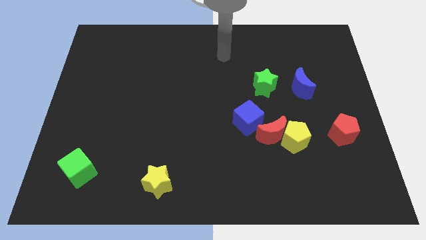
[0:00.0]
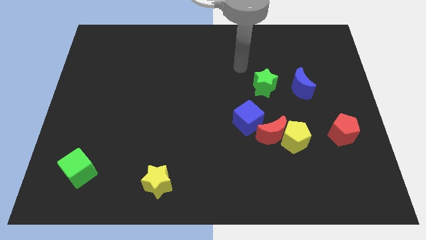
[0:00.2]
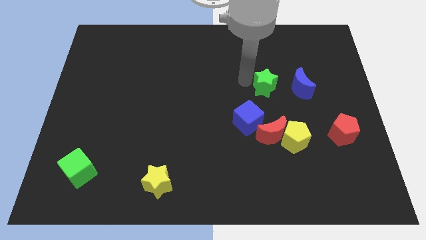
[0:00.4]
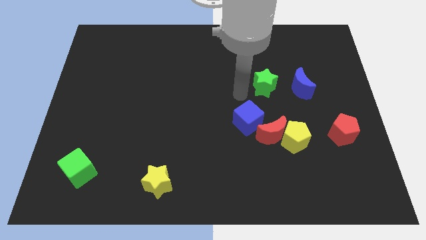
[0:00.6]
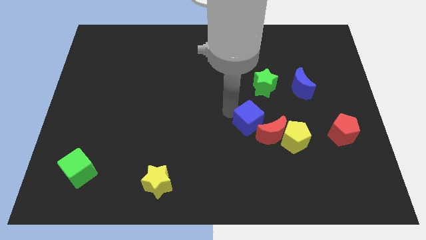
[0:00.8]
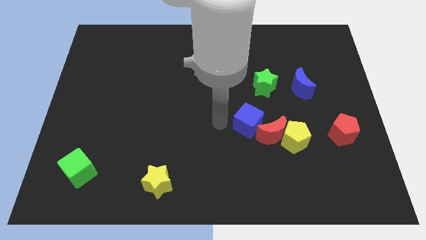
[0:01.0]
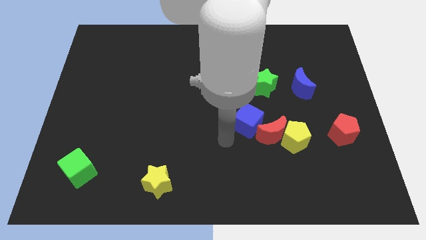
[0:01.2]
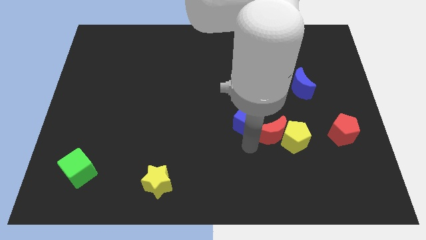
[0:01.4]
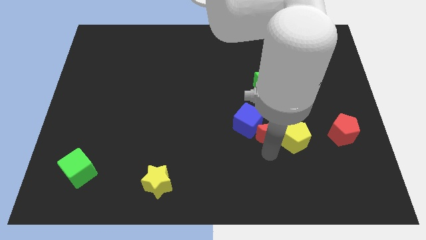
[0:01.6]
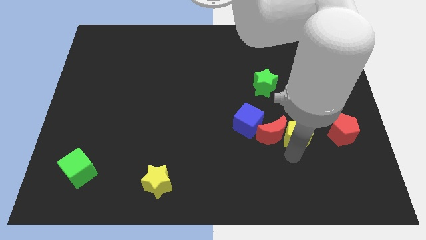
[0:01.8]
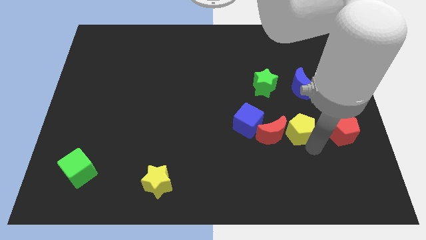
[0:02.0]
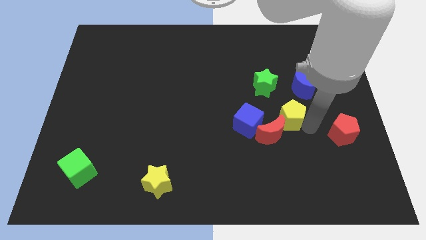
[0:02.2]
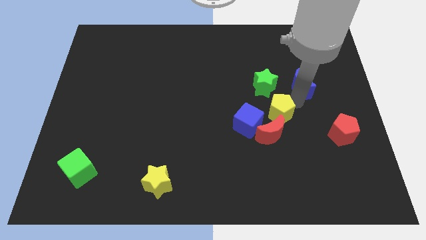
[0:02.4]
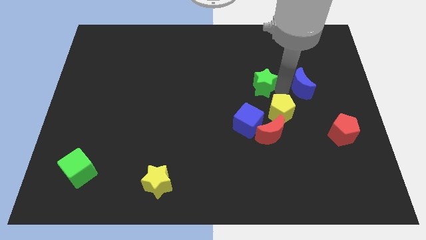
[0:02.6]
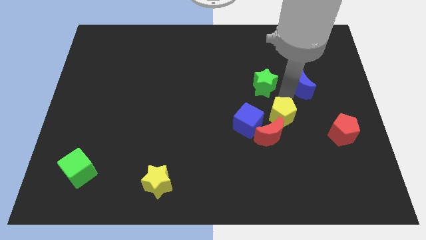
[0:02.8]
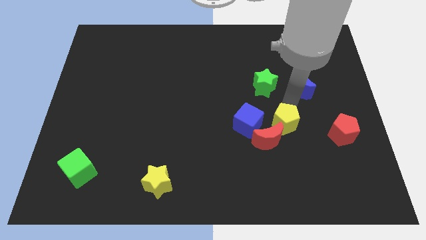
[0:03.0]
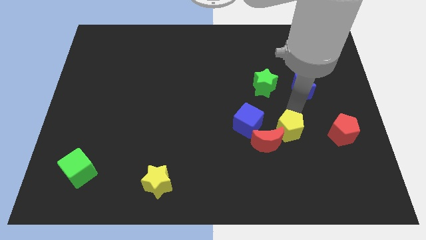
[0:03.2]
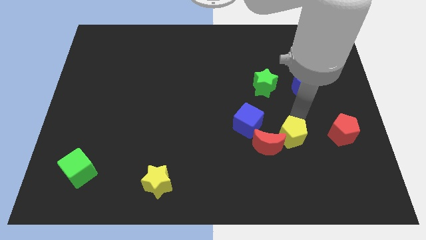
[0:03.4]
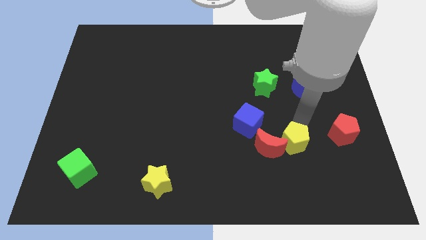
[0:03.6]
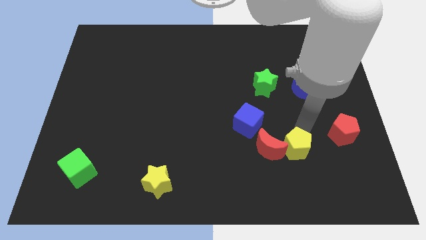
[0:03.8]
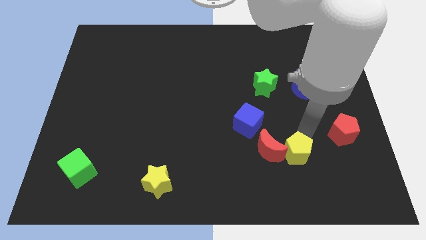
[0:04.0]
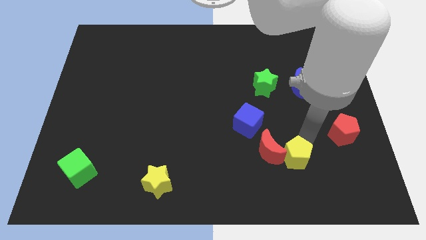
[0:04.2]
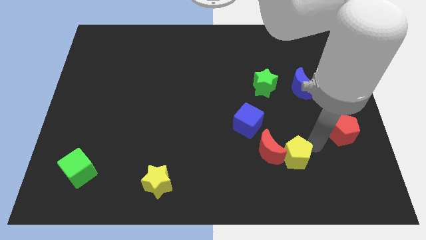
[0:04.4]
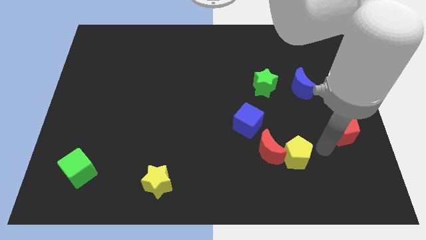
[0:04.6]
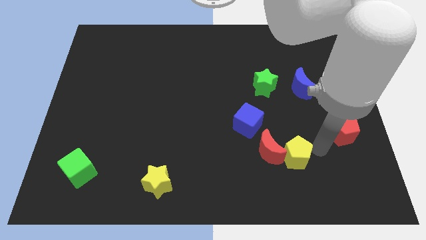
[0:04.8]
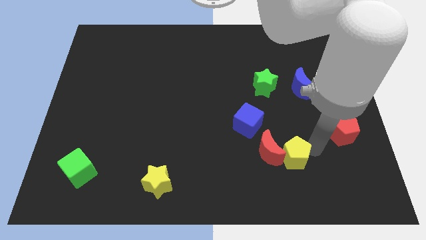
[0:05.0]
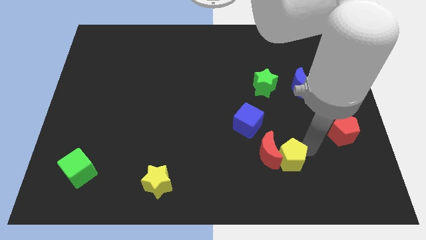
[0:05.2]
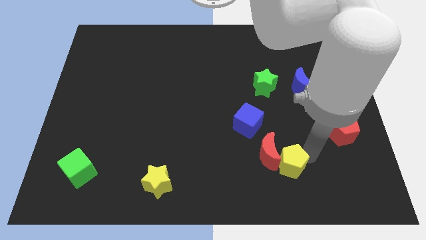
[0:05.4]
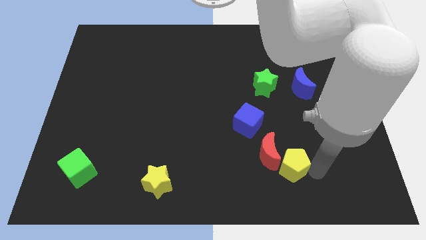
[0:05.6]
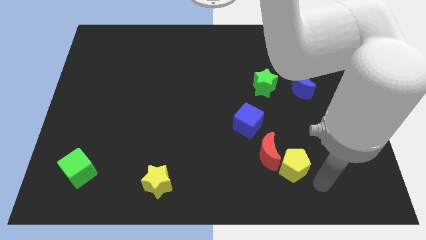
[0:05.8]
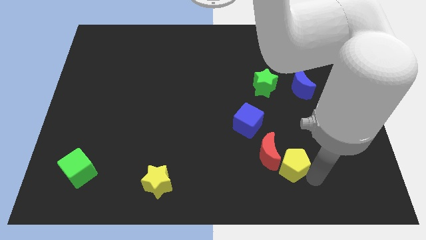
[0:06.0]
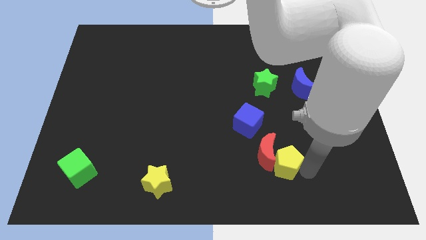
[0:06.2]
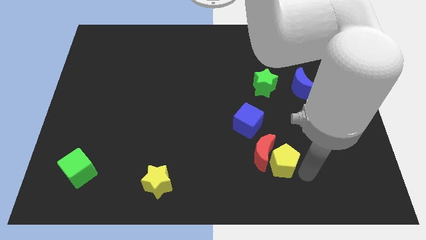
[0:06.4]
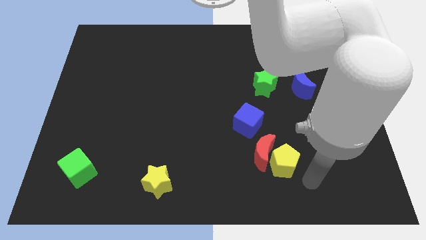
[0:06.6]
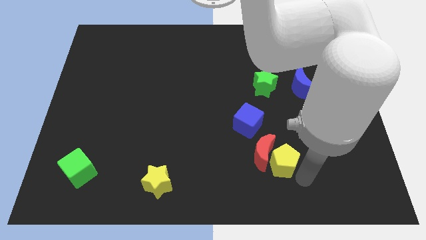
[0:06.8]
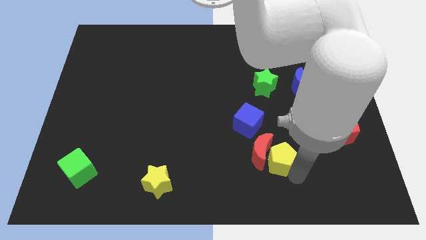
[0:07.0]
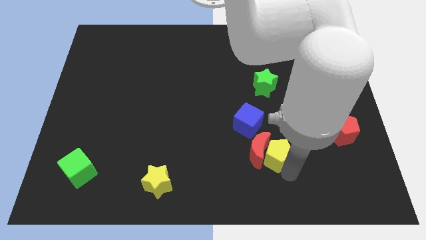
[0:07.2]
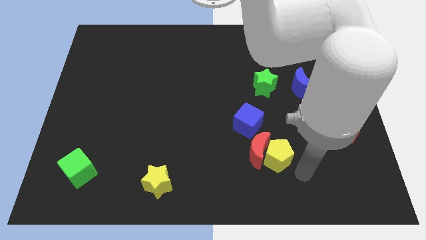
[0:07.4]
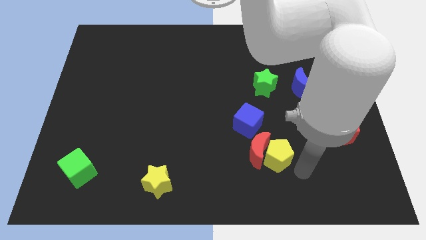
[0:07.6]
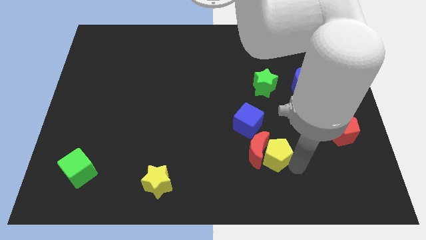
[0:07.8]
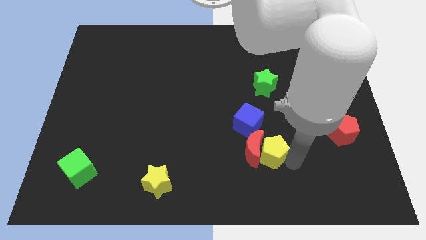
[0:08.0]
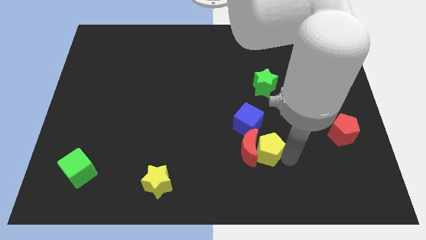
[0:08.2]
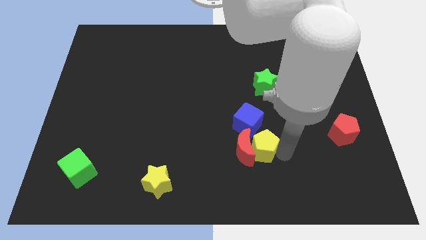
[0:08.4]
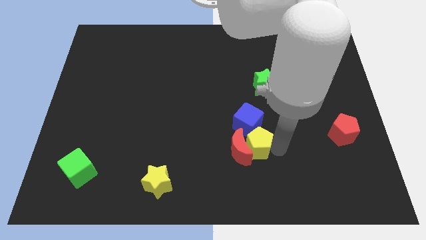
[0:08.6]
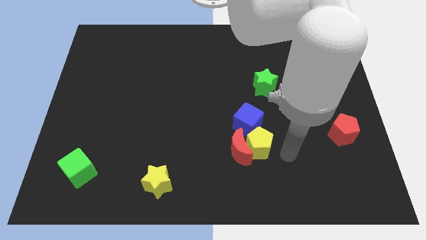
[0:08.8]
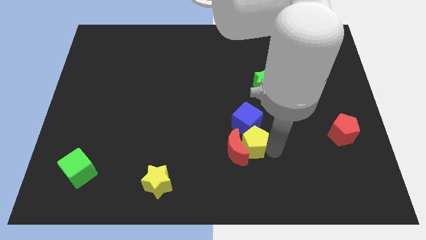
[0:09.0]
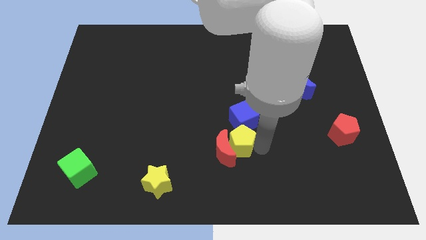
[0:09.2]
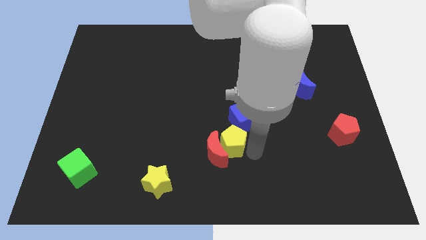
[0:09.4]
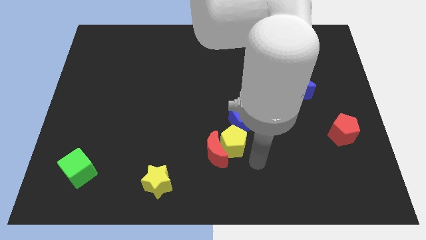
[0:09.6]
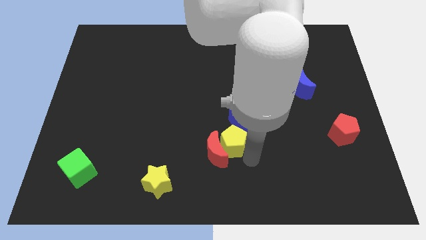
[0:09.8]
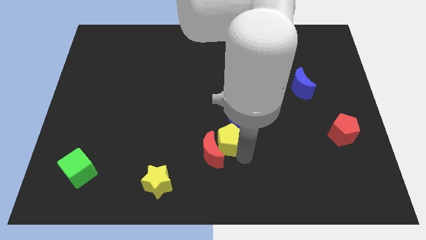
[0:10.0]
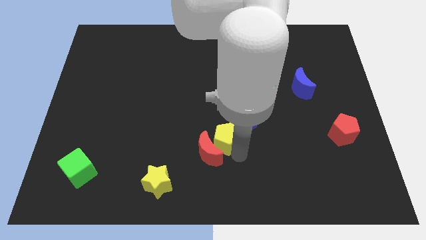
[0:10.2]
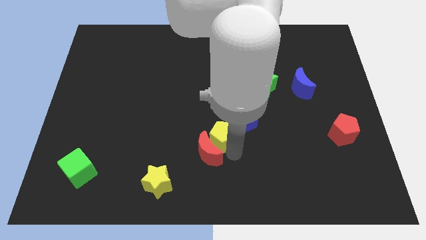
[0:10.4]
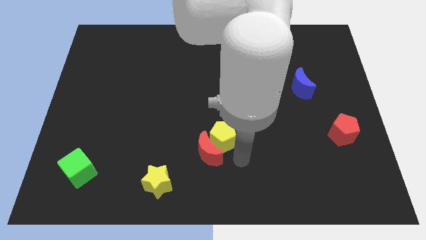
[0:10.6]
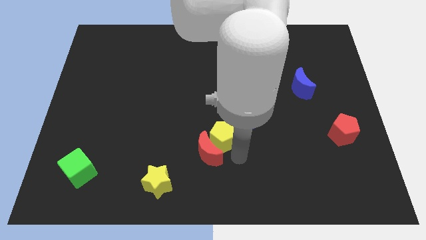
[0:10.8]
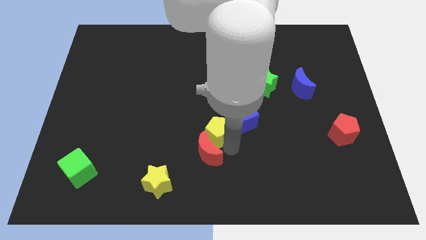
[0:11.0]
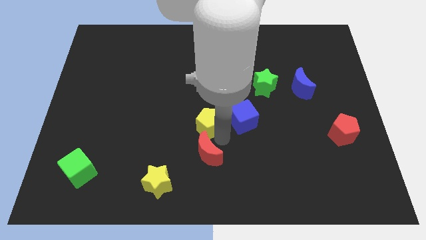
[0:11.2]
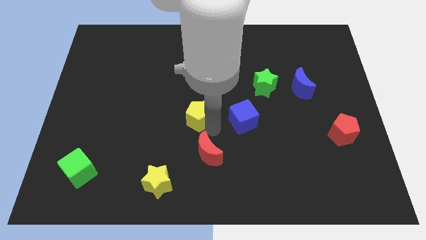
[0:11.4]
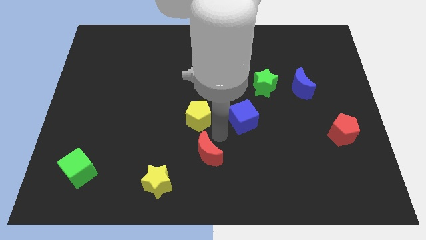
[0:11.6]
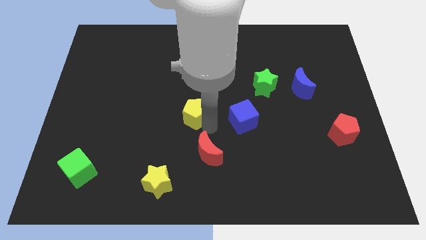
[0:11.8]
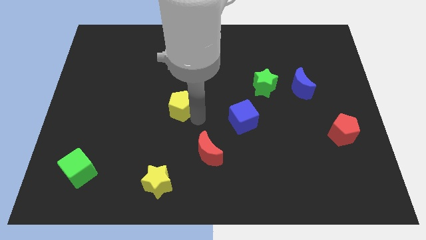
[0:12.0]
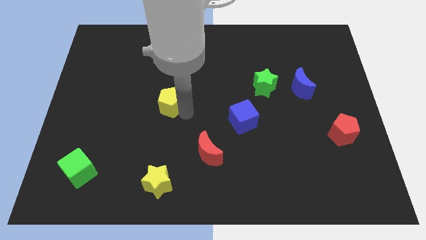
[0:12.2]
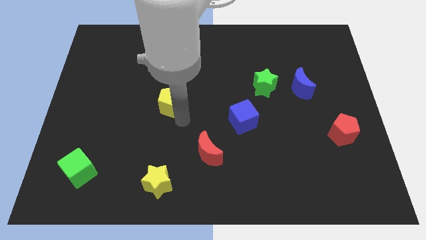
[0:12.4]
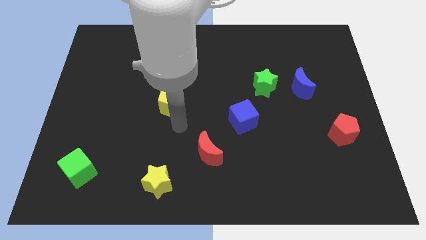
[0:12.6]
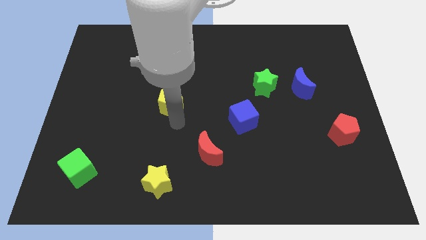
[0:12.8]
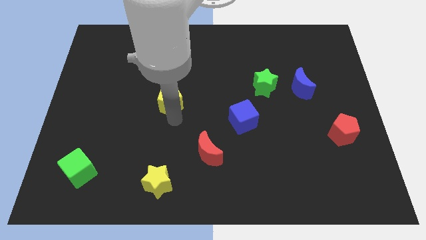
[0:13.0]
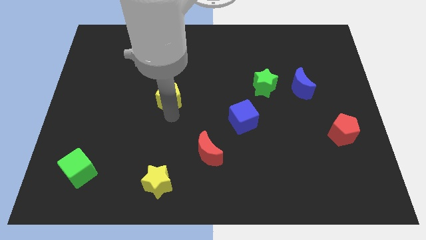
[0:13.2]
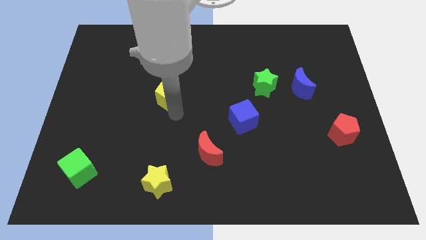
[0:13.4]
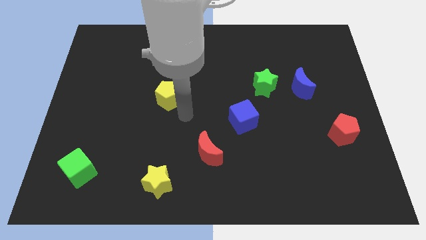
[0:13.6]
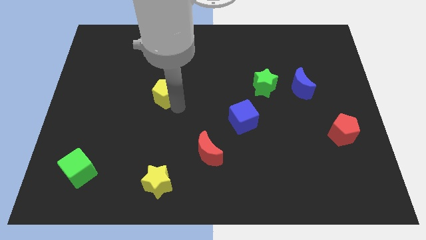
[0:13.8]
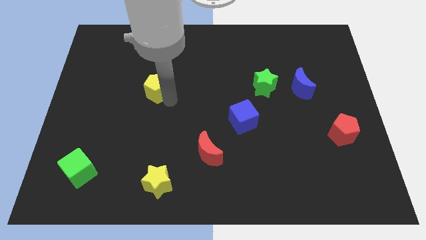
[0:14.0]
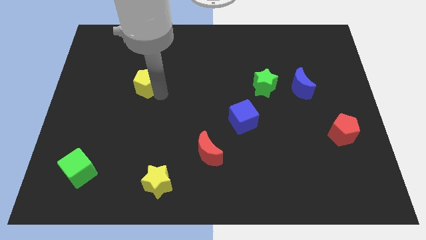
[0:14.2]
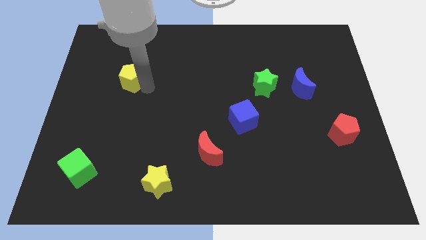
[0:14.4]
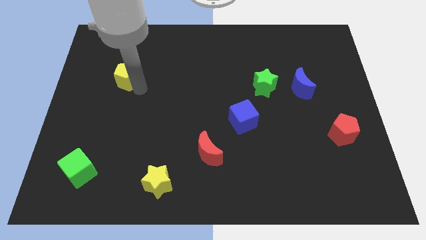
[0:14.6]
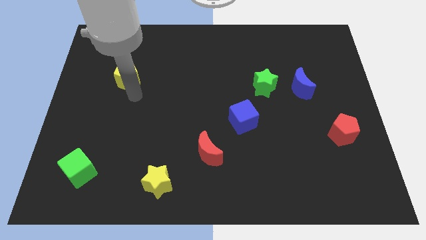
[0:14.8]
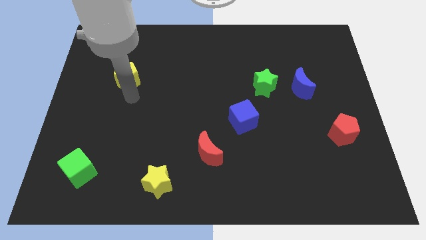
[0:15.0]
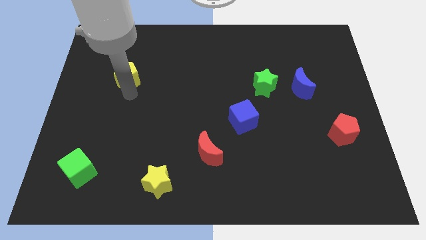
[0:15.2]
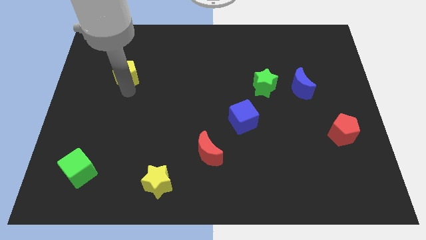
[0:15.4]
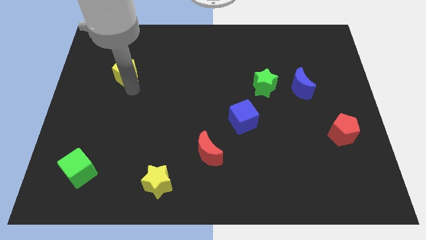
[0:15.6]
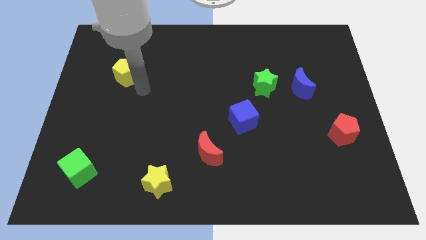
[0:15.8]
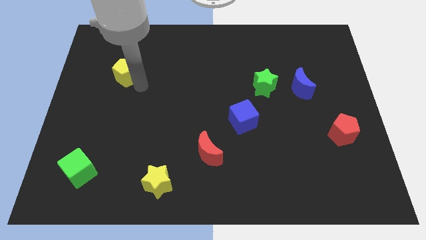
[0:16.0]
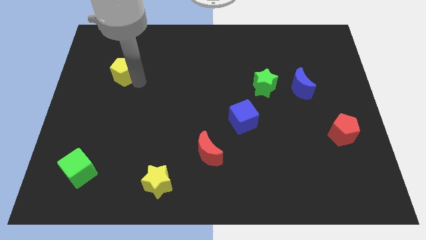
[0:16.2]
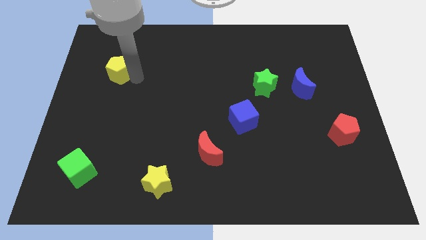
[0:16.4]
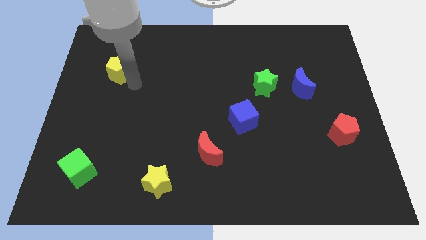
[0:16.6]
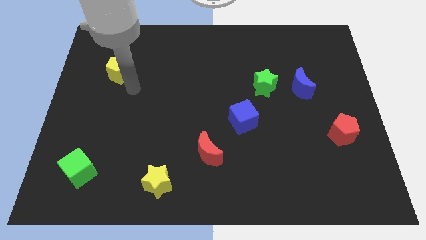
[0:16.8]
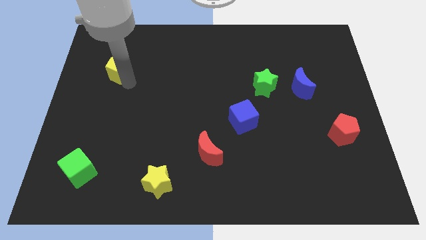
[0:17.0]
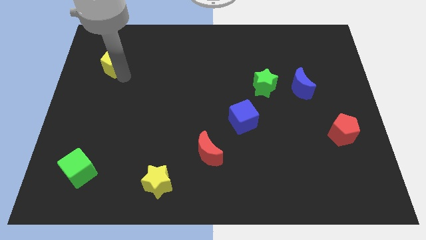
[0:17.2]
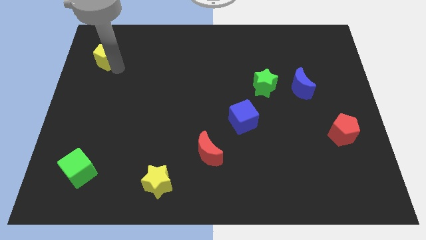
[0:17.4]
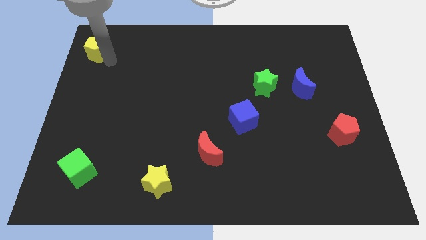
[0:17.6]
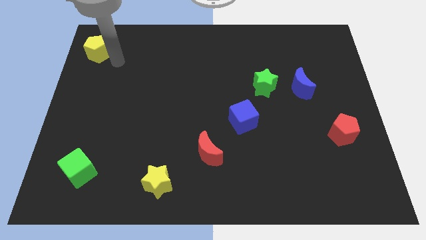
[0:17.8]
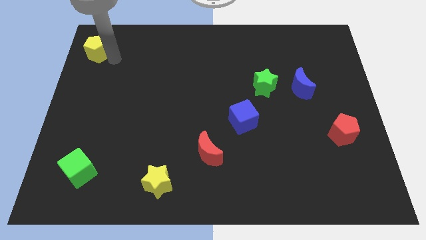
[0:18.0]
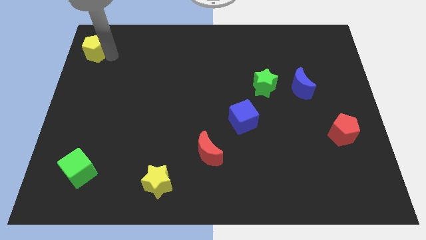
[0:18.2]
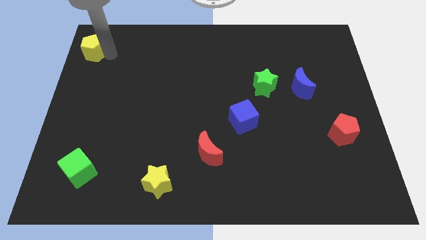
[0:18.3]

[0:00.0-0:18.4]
put the yellow pentagon to the top left corner
